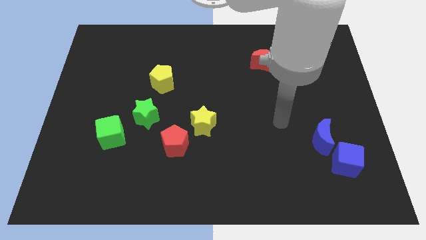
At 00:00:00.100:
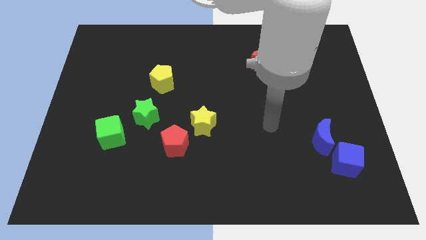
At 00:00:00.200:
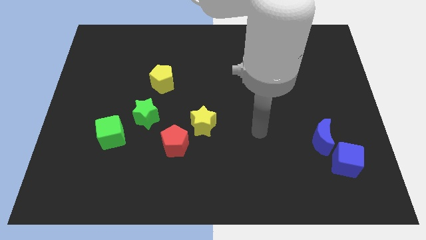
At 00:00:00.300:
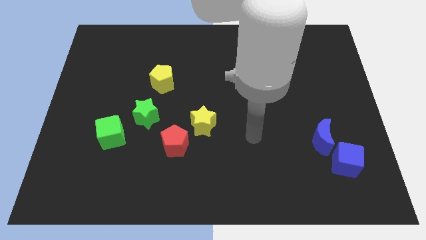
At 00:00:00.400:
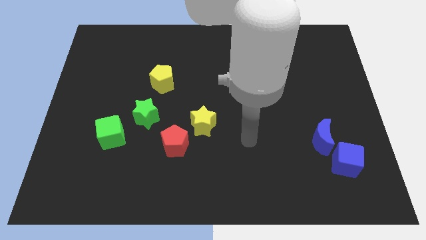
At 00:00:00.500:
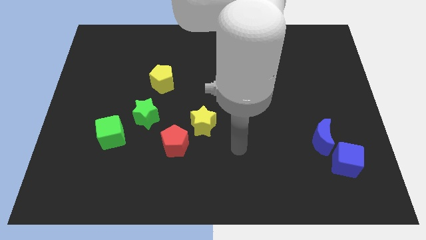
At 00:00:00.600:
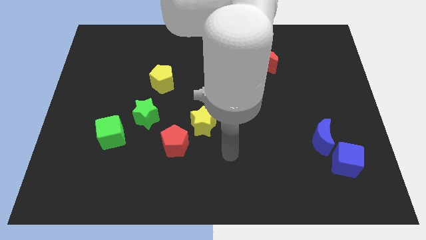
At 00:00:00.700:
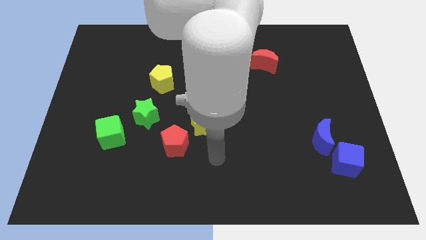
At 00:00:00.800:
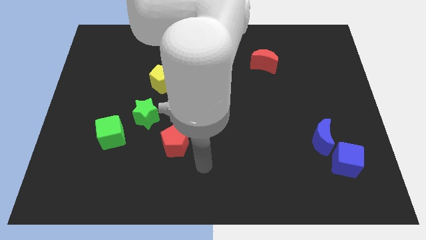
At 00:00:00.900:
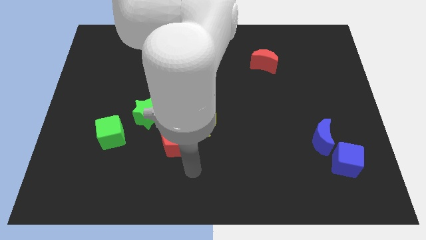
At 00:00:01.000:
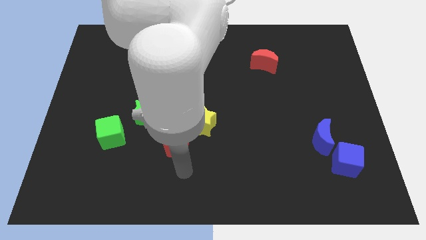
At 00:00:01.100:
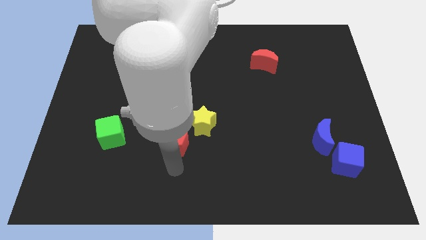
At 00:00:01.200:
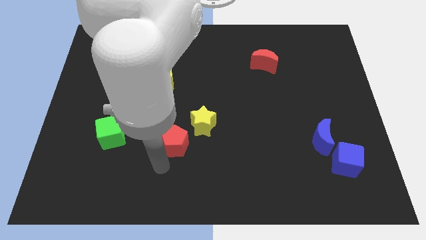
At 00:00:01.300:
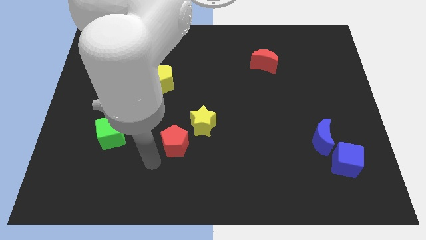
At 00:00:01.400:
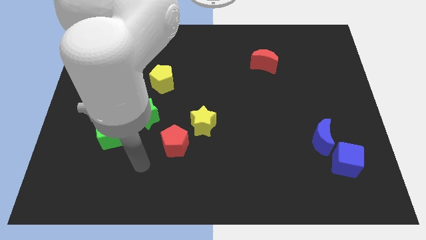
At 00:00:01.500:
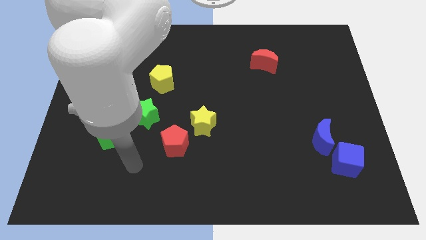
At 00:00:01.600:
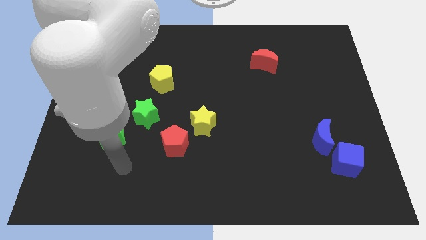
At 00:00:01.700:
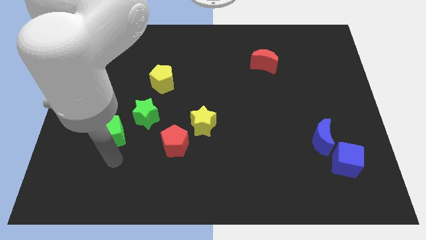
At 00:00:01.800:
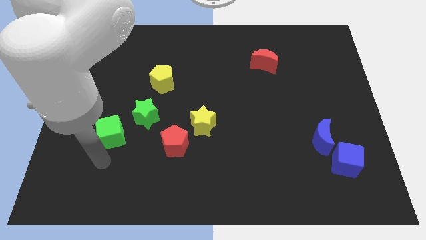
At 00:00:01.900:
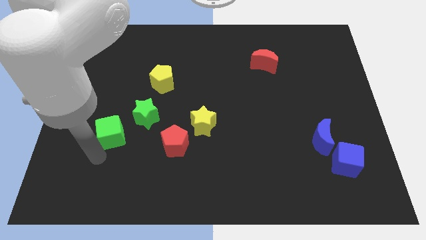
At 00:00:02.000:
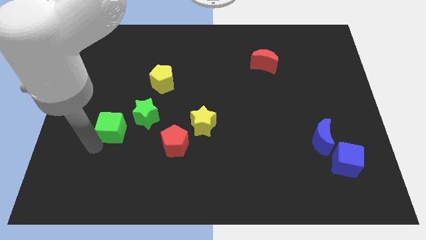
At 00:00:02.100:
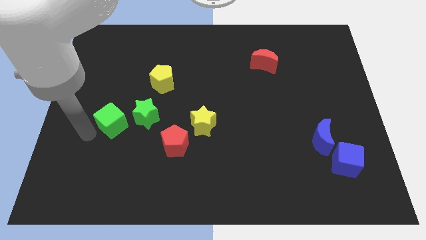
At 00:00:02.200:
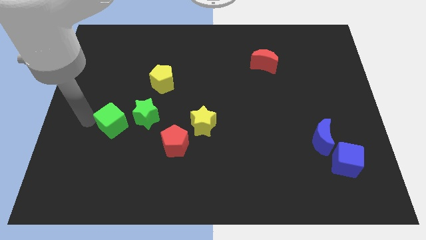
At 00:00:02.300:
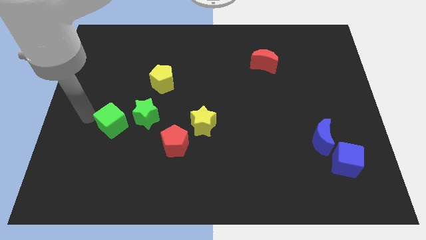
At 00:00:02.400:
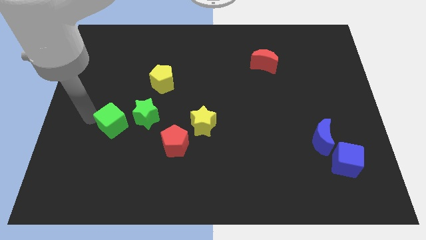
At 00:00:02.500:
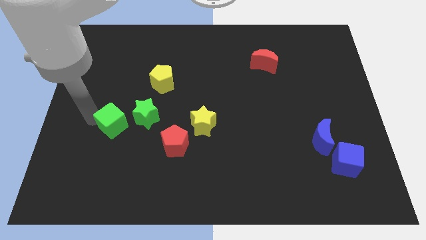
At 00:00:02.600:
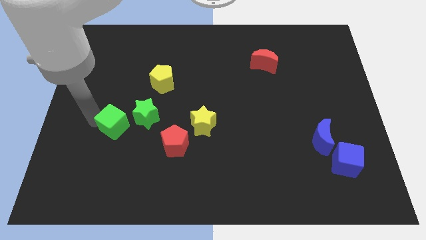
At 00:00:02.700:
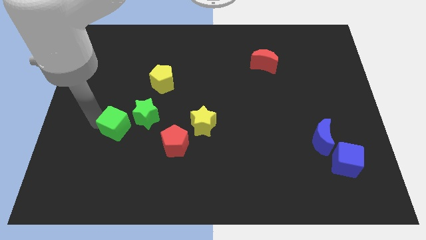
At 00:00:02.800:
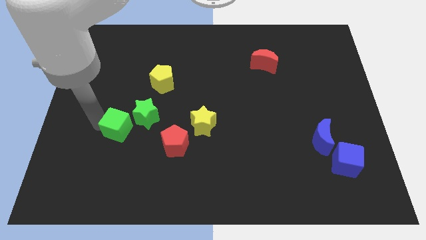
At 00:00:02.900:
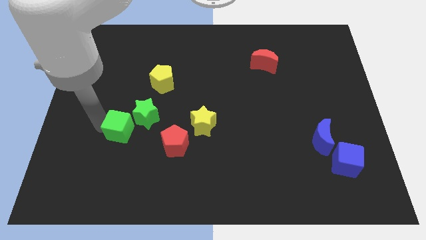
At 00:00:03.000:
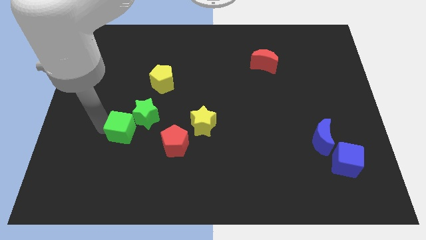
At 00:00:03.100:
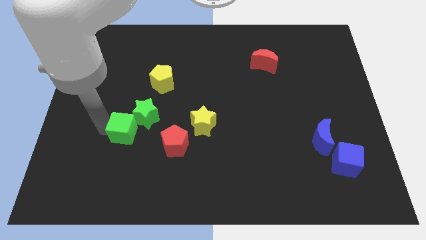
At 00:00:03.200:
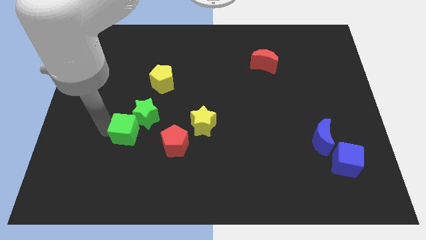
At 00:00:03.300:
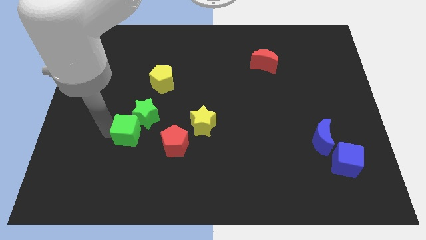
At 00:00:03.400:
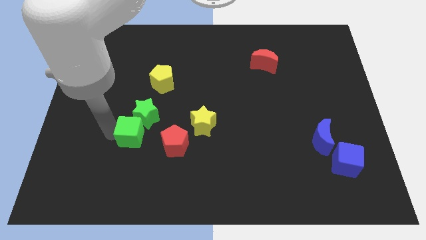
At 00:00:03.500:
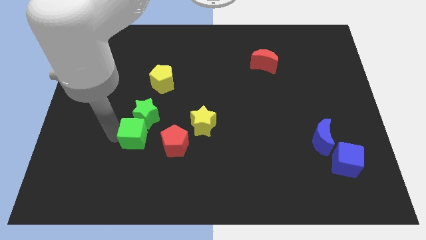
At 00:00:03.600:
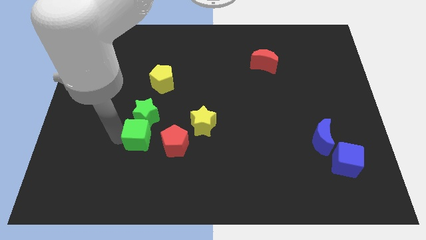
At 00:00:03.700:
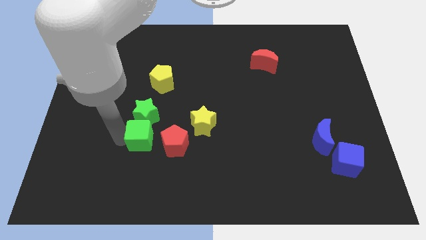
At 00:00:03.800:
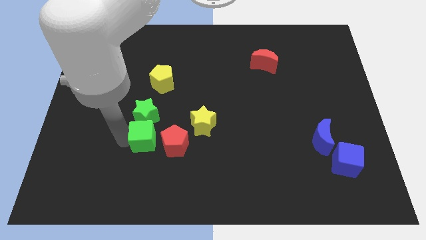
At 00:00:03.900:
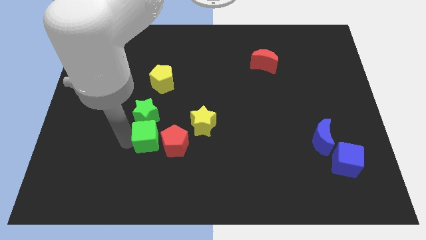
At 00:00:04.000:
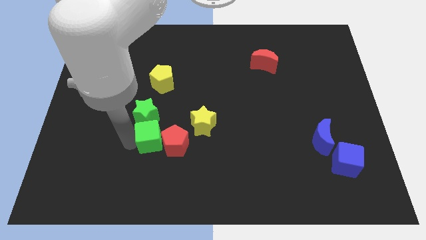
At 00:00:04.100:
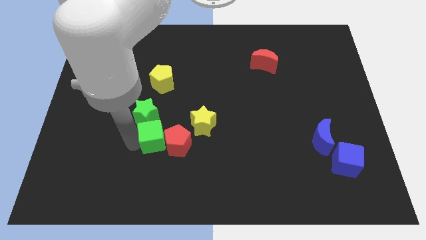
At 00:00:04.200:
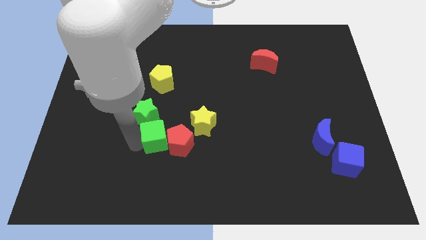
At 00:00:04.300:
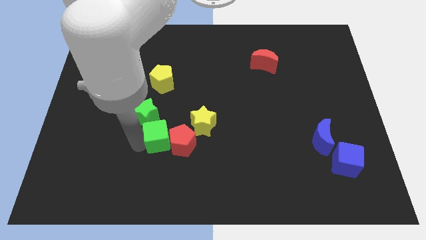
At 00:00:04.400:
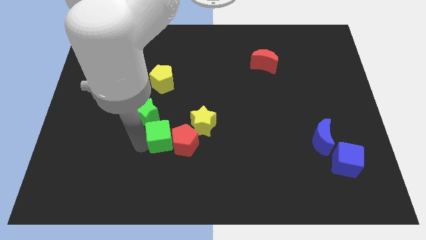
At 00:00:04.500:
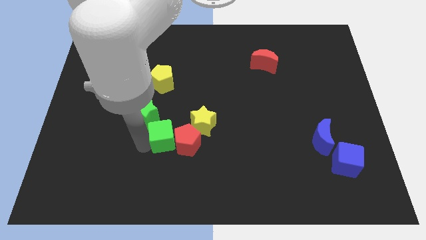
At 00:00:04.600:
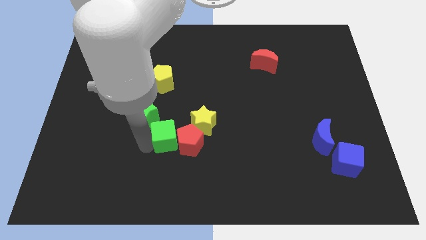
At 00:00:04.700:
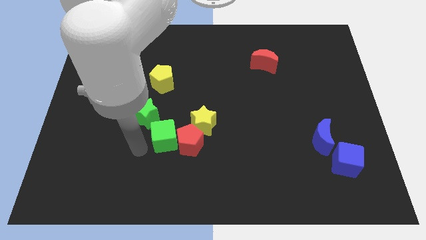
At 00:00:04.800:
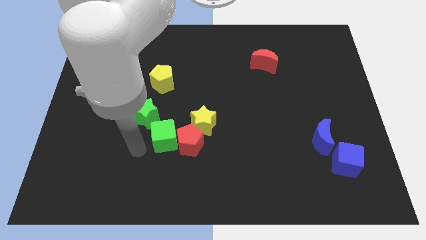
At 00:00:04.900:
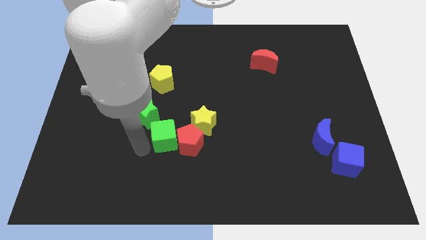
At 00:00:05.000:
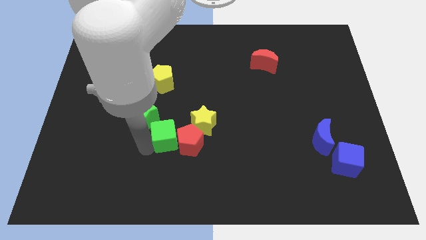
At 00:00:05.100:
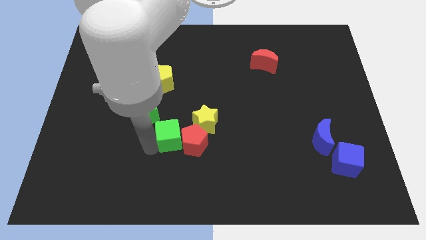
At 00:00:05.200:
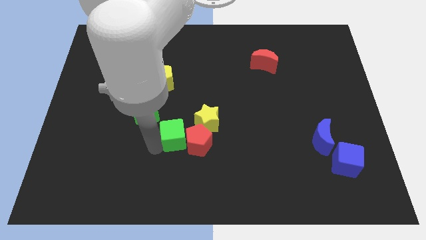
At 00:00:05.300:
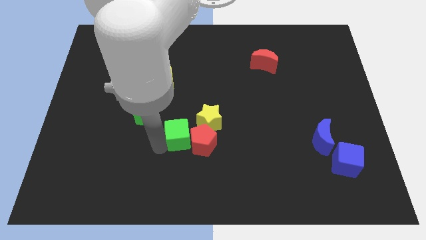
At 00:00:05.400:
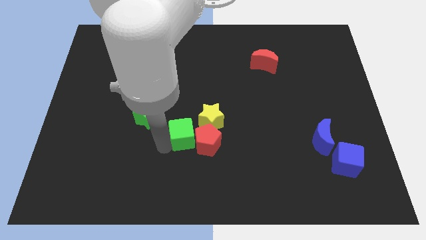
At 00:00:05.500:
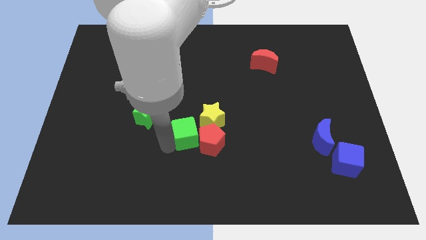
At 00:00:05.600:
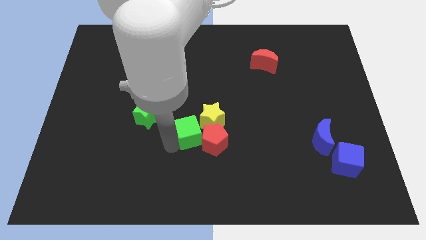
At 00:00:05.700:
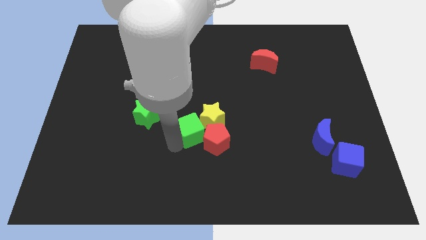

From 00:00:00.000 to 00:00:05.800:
put the green cube towards the yellow star

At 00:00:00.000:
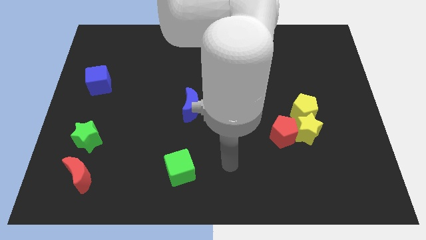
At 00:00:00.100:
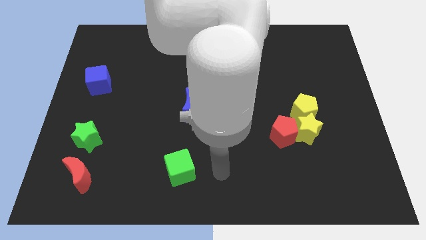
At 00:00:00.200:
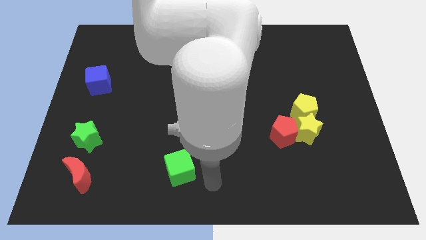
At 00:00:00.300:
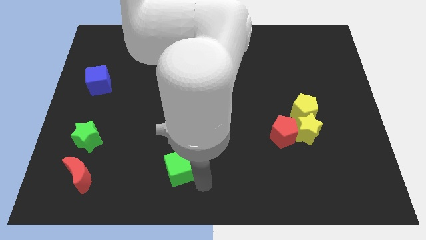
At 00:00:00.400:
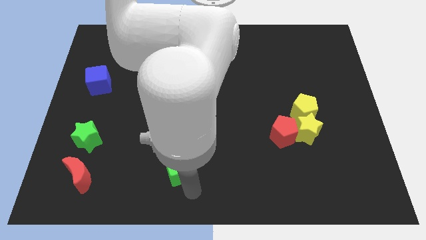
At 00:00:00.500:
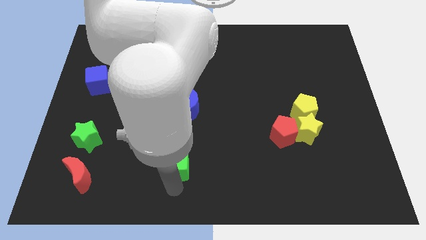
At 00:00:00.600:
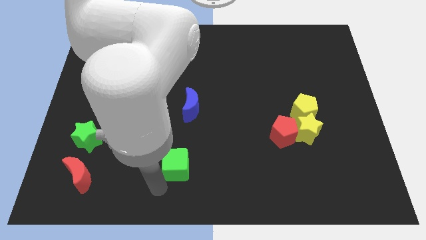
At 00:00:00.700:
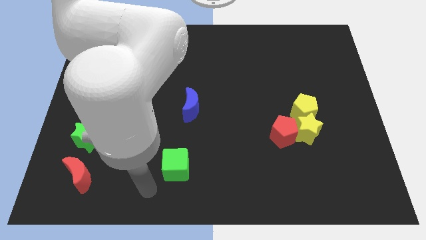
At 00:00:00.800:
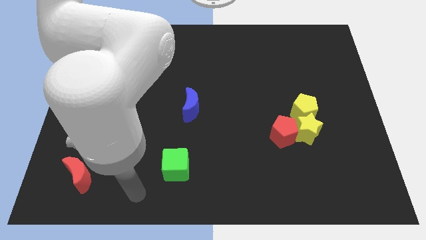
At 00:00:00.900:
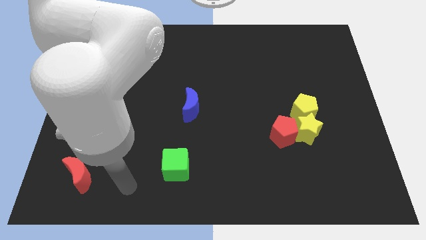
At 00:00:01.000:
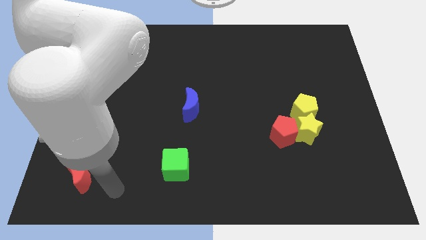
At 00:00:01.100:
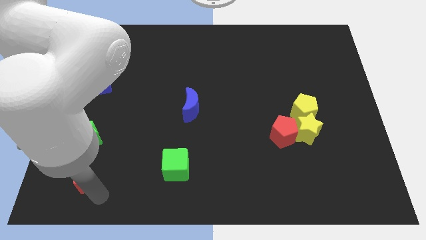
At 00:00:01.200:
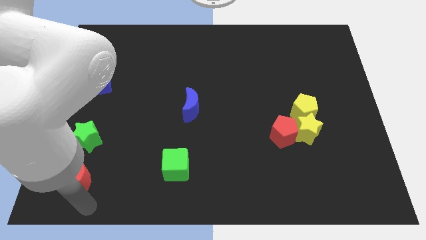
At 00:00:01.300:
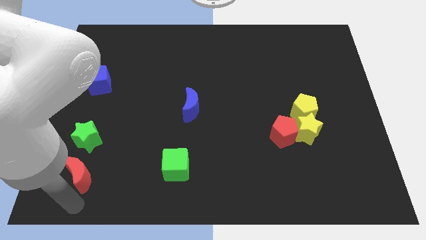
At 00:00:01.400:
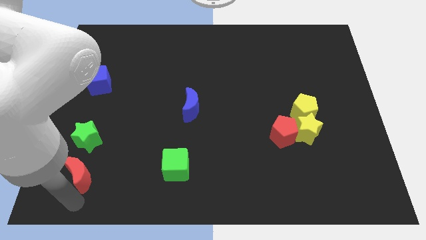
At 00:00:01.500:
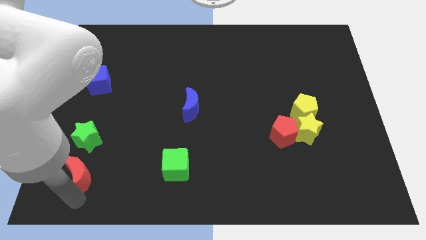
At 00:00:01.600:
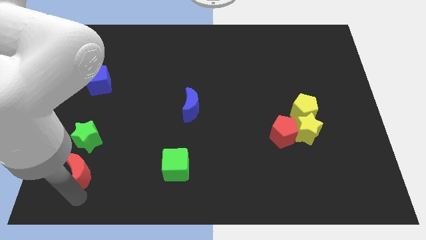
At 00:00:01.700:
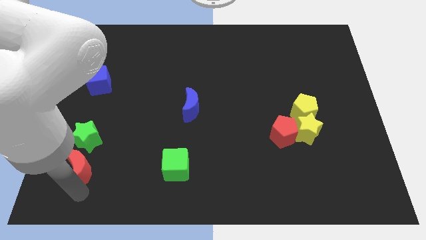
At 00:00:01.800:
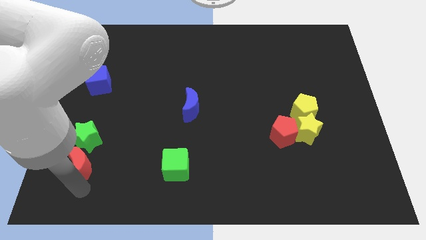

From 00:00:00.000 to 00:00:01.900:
put the red moon to the green star

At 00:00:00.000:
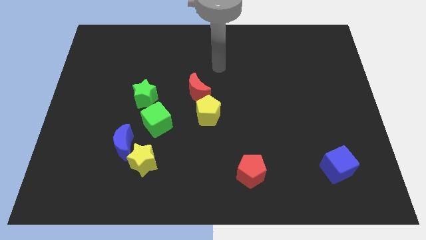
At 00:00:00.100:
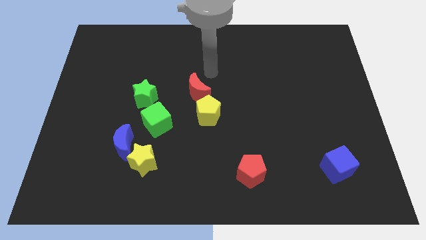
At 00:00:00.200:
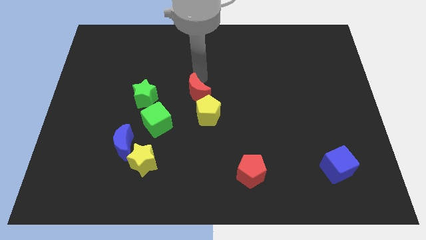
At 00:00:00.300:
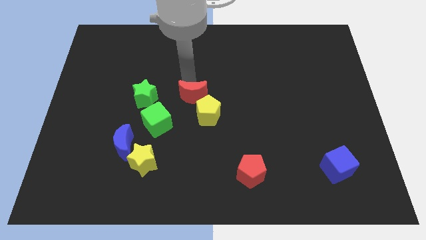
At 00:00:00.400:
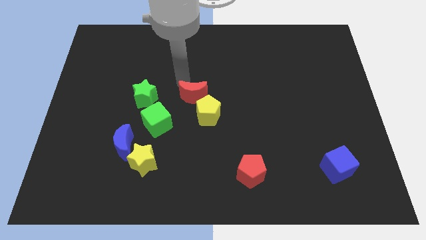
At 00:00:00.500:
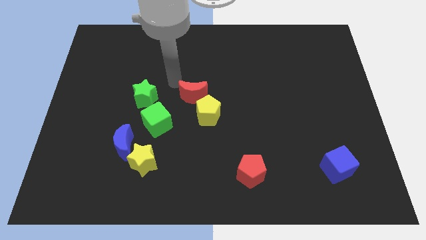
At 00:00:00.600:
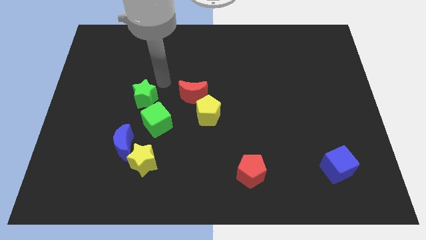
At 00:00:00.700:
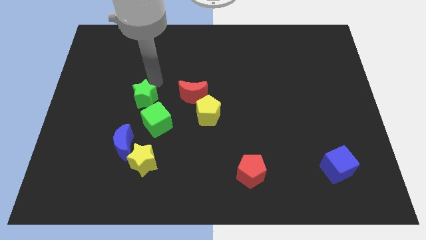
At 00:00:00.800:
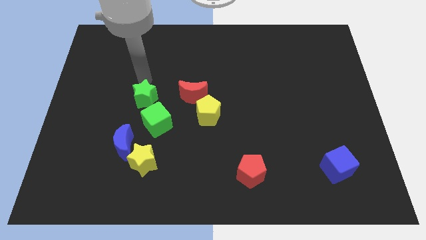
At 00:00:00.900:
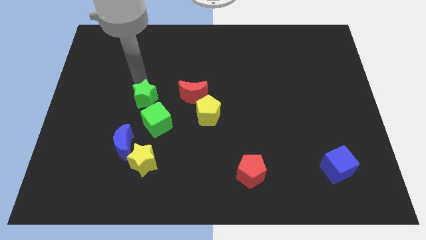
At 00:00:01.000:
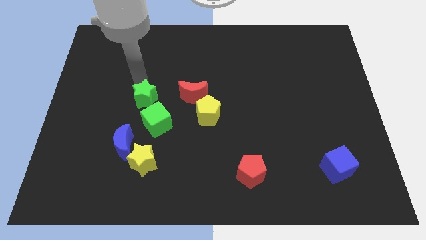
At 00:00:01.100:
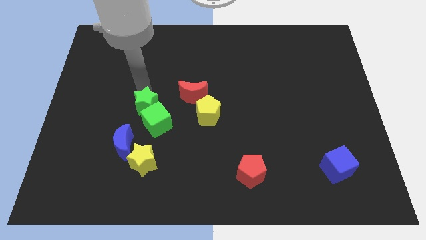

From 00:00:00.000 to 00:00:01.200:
push the green star next to the green cube
